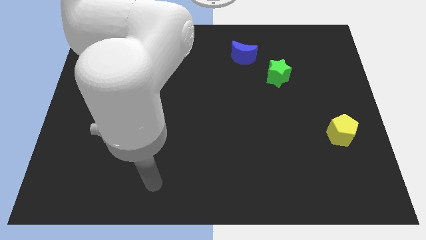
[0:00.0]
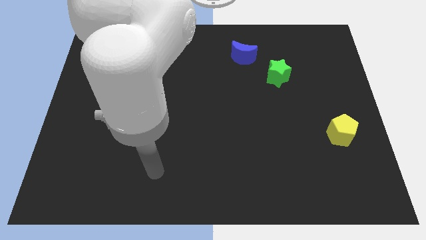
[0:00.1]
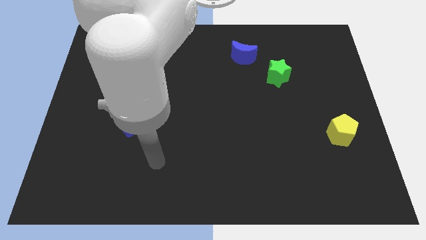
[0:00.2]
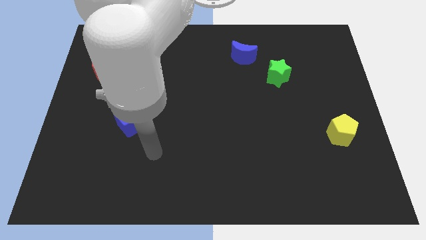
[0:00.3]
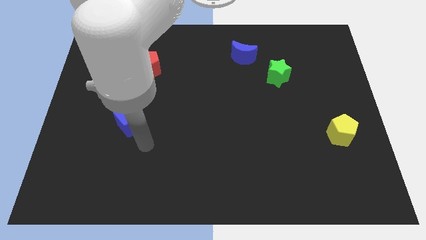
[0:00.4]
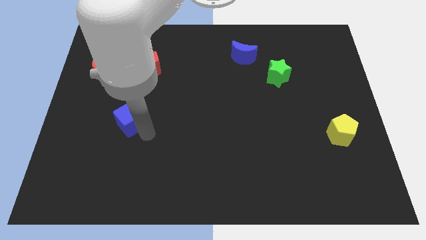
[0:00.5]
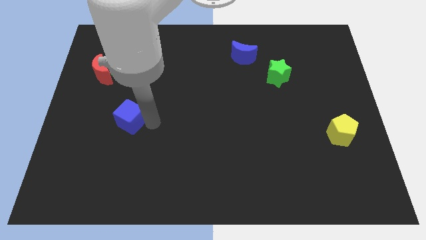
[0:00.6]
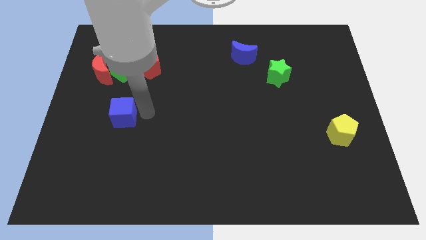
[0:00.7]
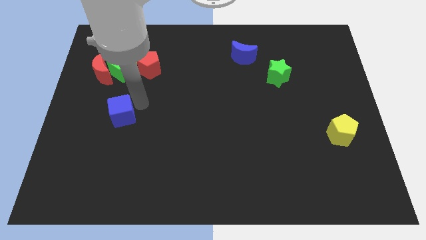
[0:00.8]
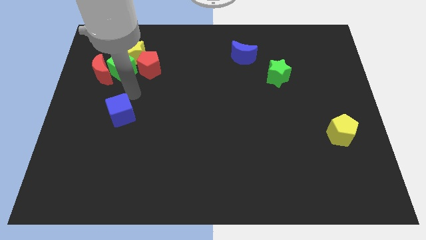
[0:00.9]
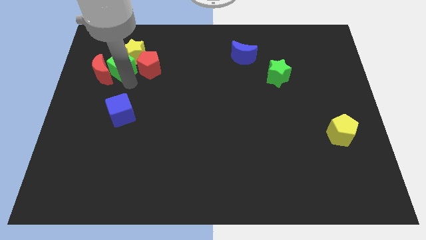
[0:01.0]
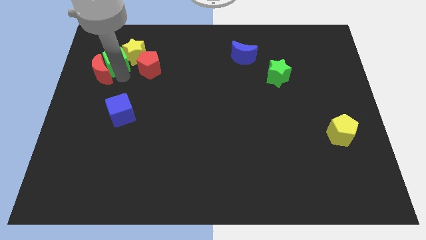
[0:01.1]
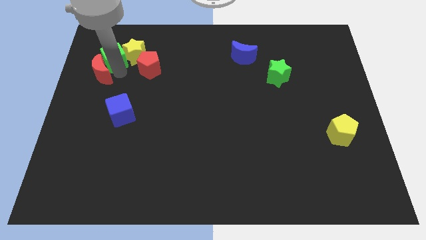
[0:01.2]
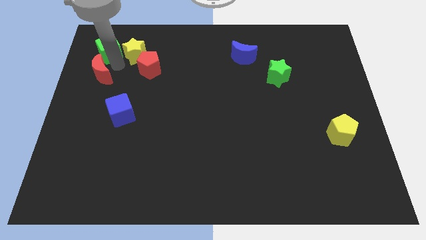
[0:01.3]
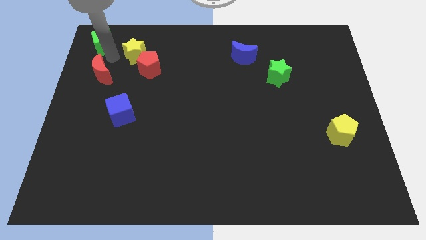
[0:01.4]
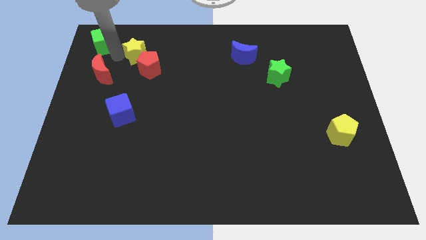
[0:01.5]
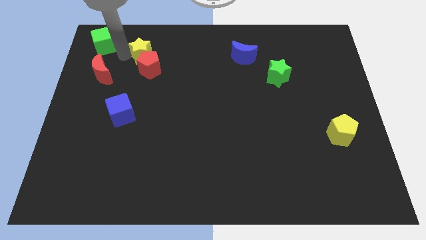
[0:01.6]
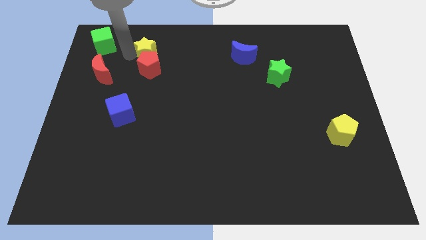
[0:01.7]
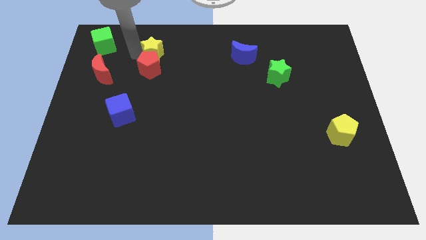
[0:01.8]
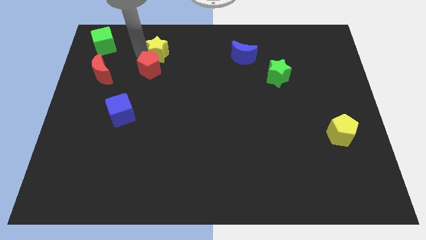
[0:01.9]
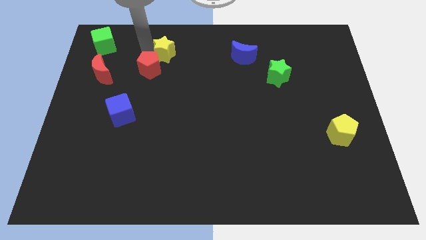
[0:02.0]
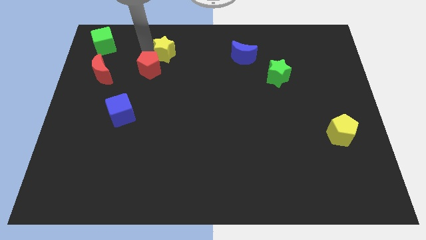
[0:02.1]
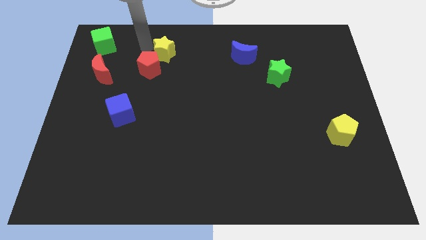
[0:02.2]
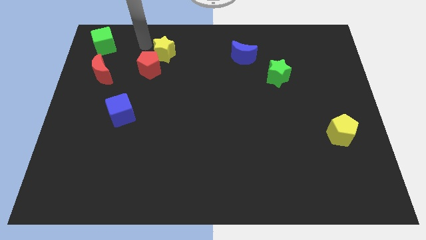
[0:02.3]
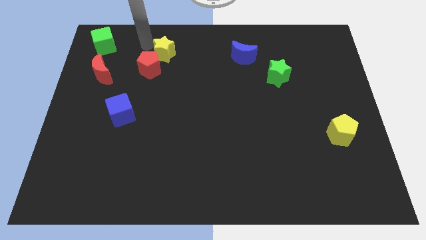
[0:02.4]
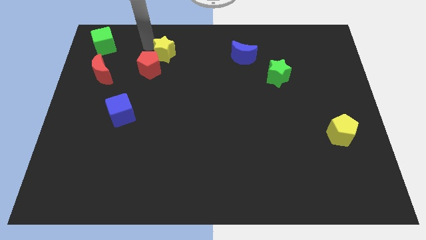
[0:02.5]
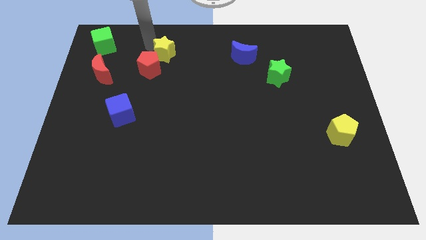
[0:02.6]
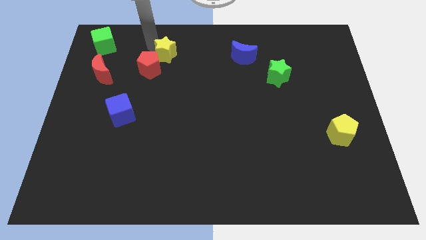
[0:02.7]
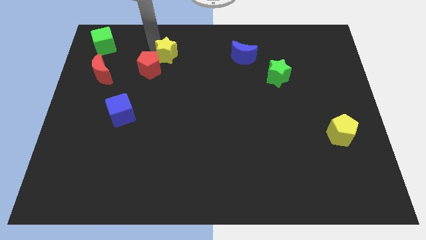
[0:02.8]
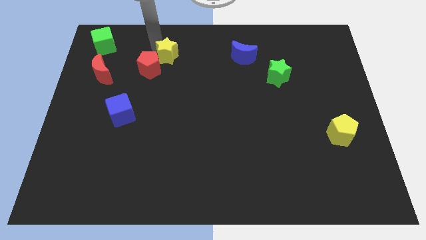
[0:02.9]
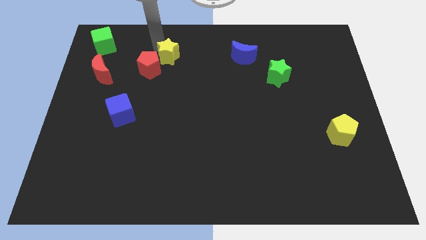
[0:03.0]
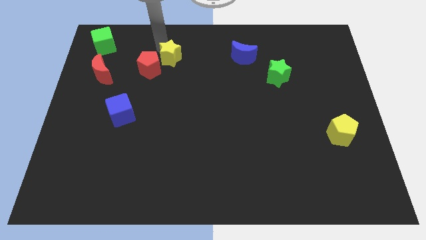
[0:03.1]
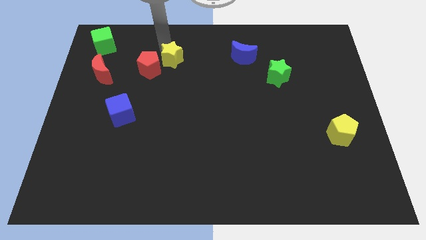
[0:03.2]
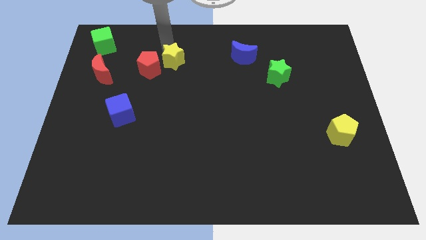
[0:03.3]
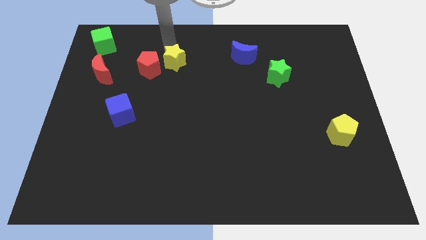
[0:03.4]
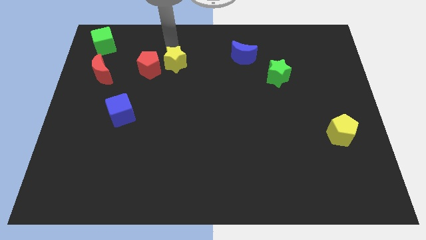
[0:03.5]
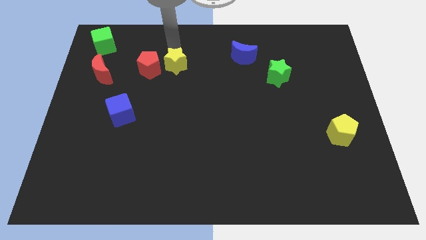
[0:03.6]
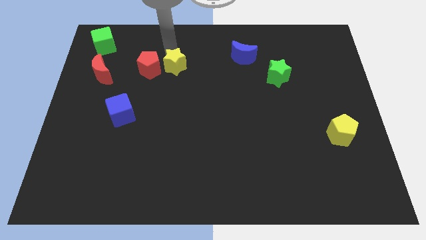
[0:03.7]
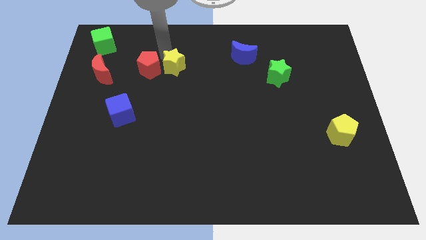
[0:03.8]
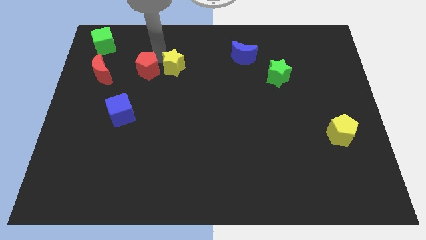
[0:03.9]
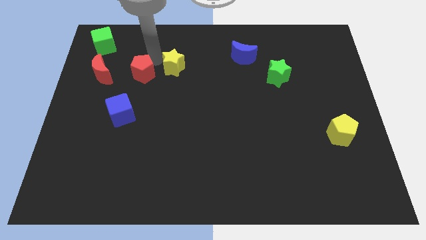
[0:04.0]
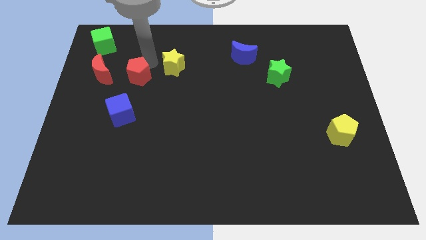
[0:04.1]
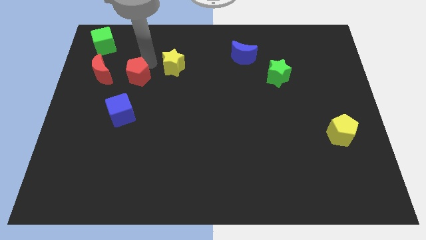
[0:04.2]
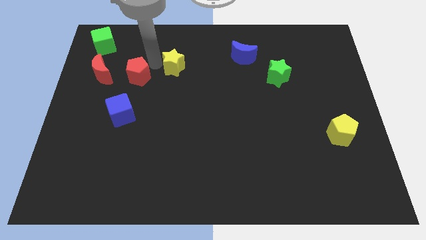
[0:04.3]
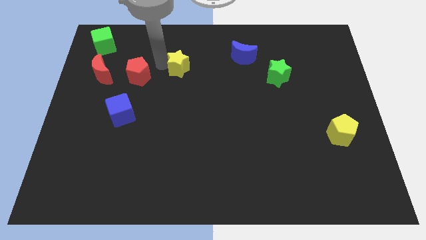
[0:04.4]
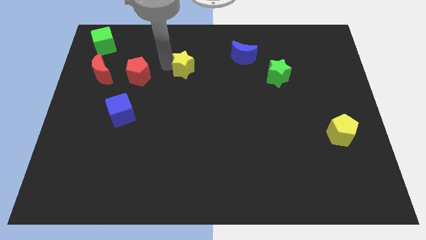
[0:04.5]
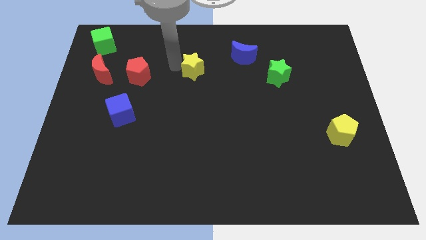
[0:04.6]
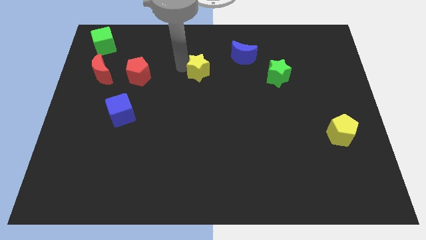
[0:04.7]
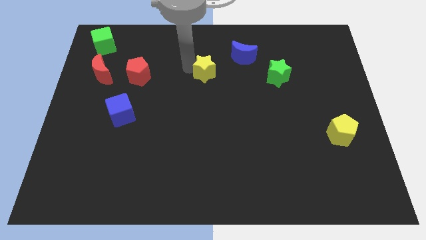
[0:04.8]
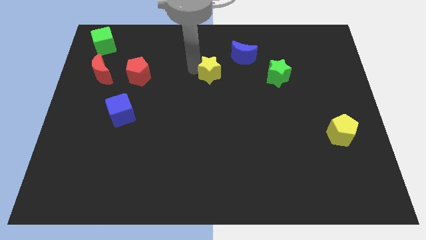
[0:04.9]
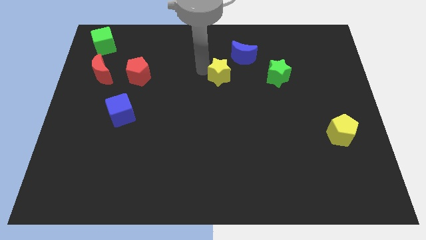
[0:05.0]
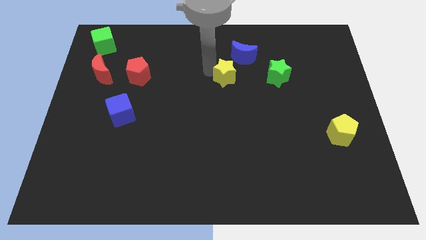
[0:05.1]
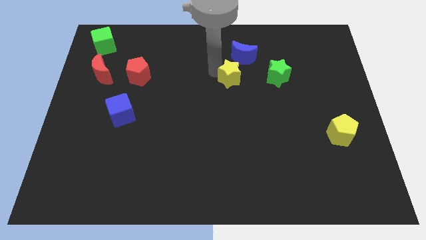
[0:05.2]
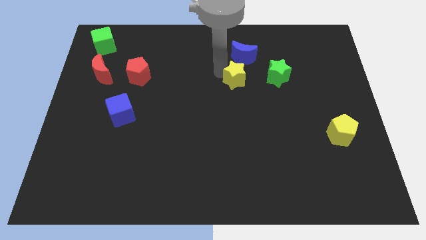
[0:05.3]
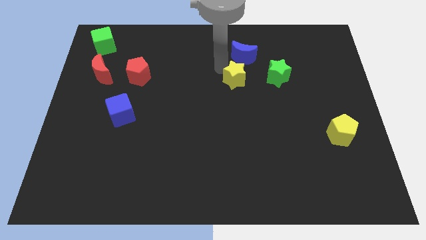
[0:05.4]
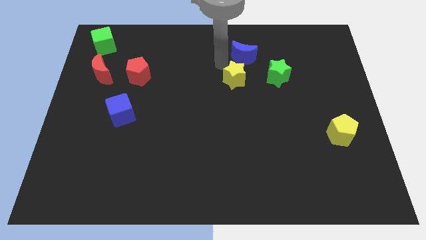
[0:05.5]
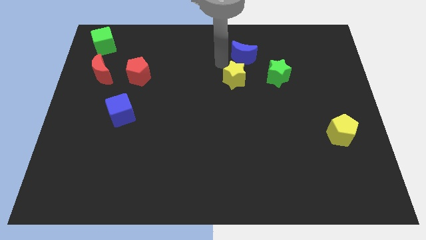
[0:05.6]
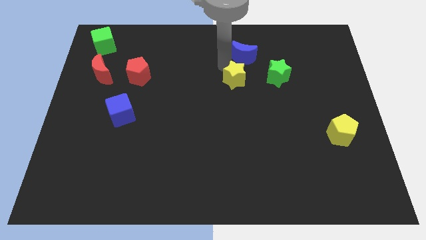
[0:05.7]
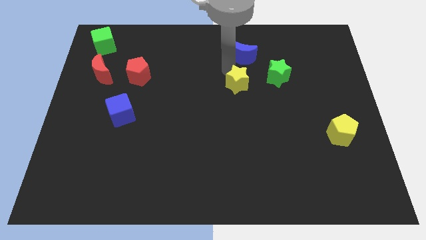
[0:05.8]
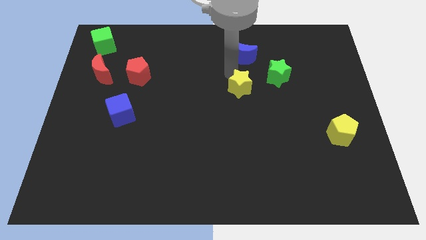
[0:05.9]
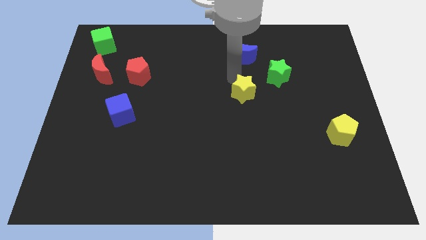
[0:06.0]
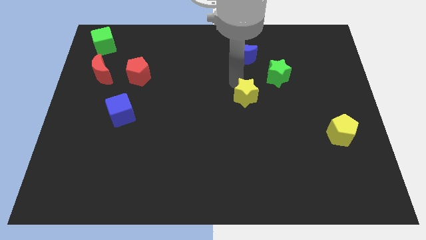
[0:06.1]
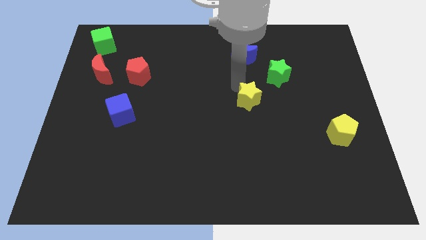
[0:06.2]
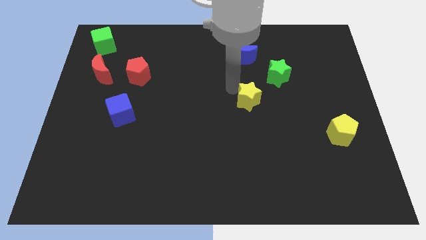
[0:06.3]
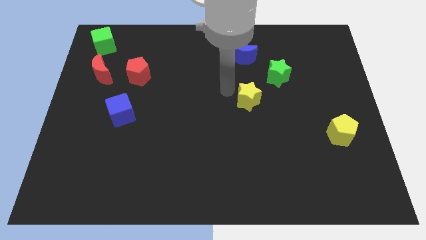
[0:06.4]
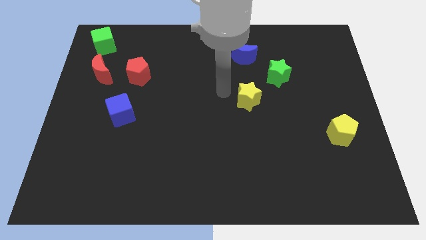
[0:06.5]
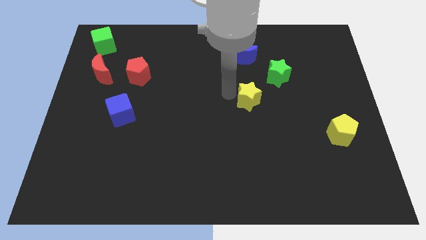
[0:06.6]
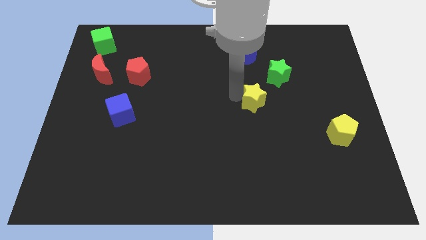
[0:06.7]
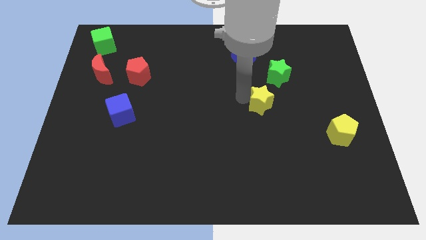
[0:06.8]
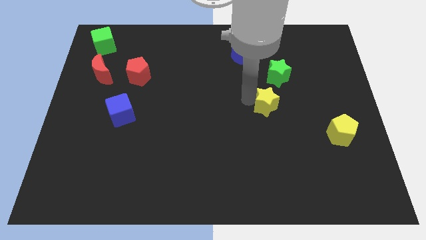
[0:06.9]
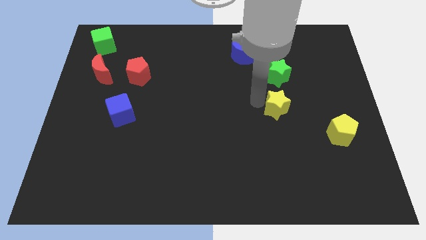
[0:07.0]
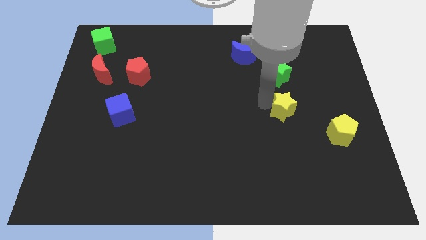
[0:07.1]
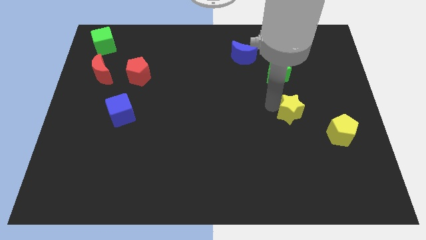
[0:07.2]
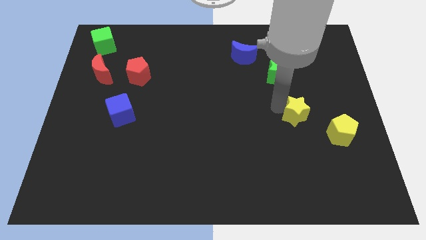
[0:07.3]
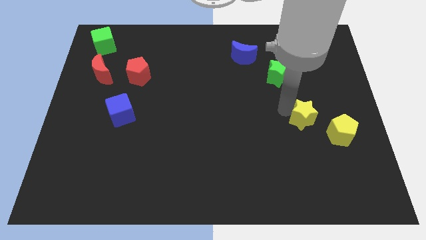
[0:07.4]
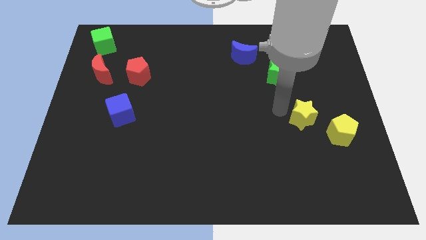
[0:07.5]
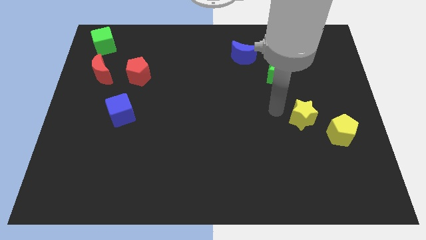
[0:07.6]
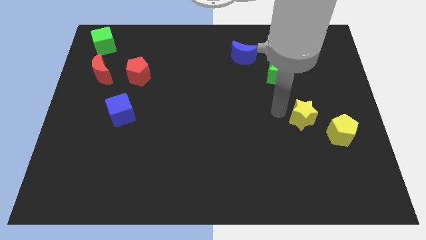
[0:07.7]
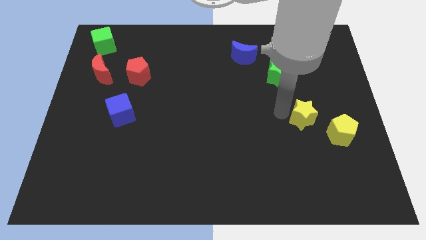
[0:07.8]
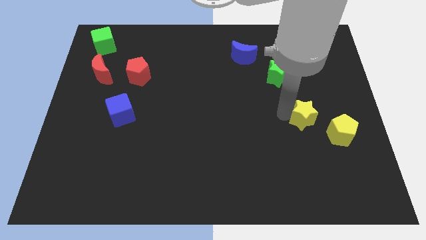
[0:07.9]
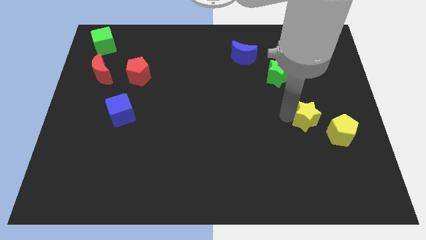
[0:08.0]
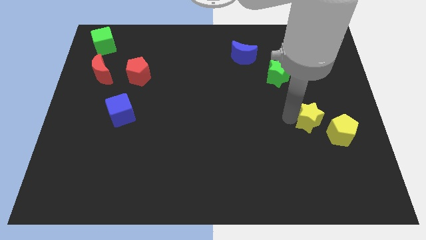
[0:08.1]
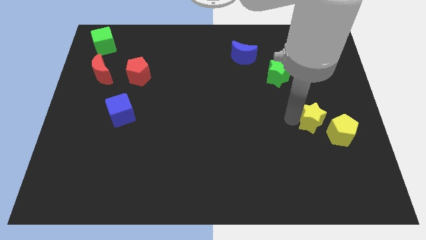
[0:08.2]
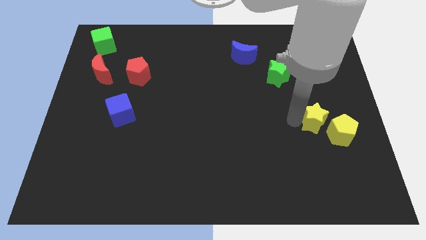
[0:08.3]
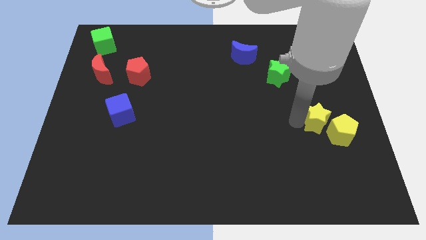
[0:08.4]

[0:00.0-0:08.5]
slide the yellow star next to the yellow pentagon
